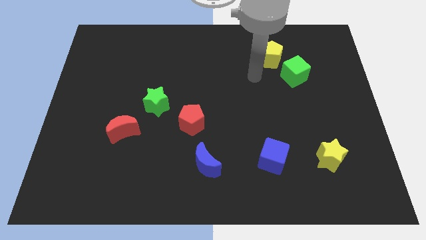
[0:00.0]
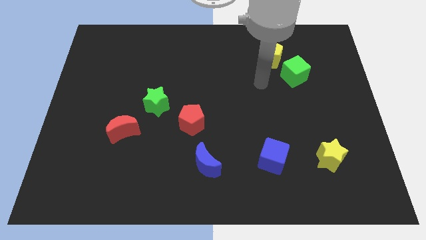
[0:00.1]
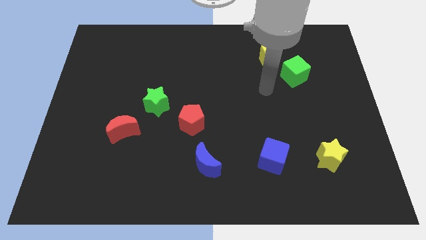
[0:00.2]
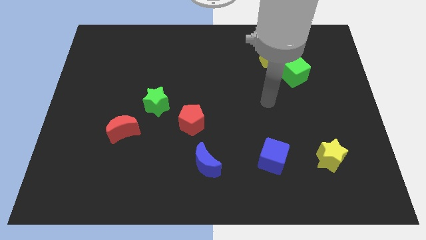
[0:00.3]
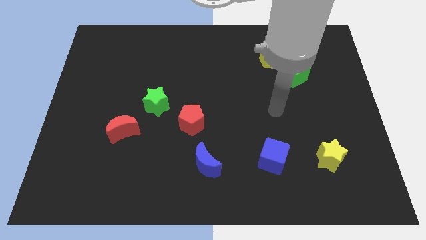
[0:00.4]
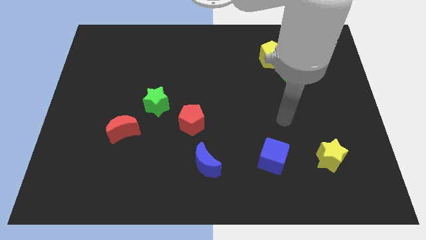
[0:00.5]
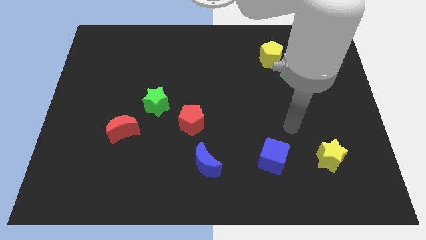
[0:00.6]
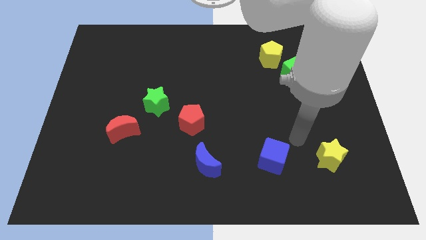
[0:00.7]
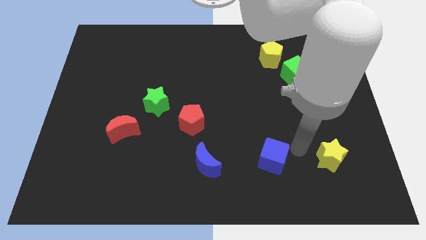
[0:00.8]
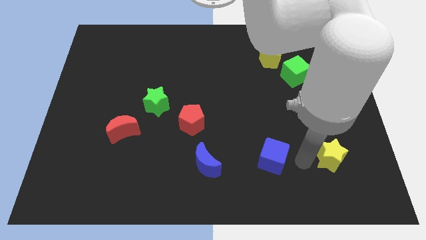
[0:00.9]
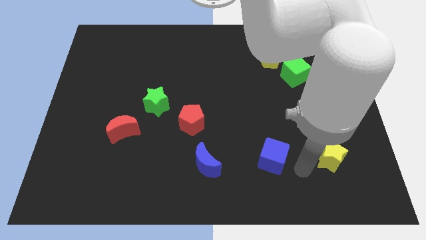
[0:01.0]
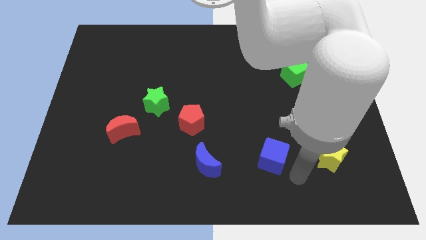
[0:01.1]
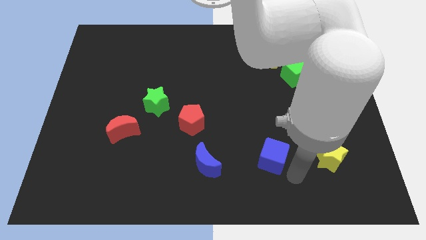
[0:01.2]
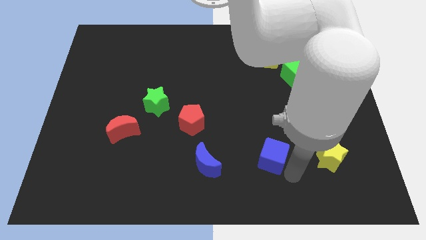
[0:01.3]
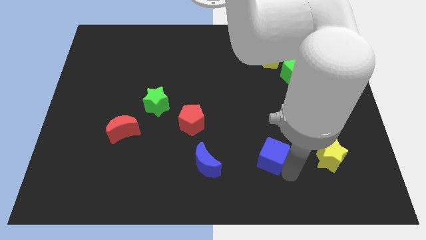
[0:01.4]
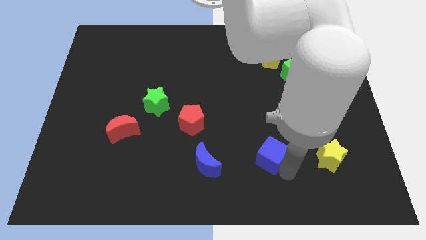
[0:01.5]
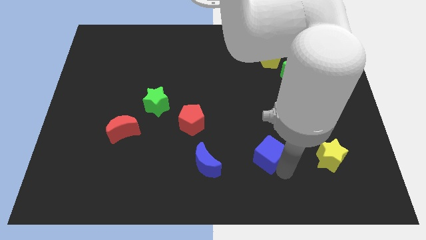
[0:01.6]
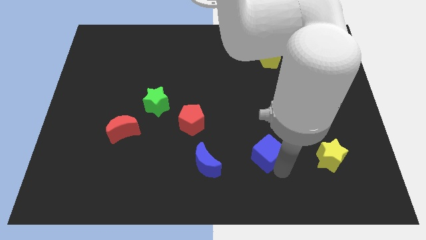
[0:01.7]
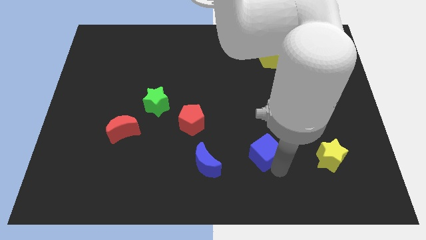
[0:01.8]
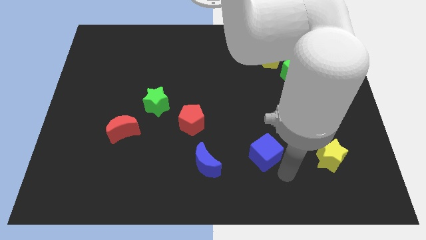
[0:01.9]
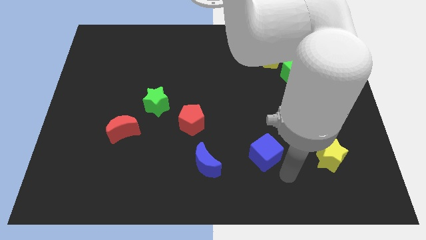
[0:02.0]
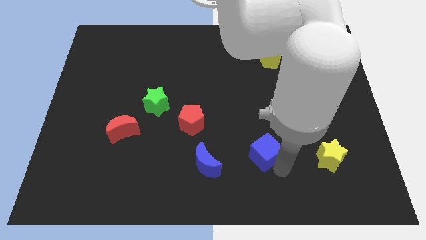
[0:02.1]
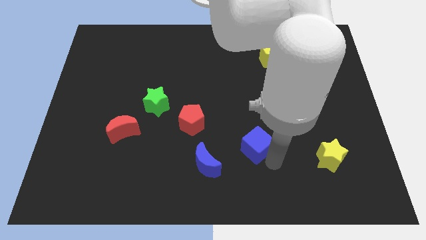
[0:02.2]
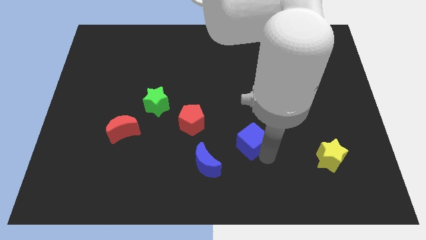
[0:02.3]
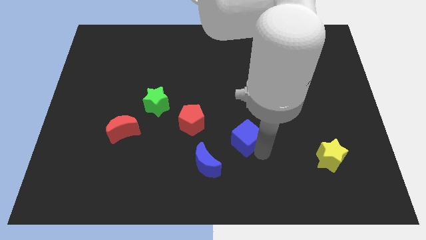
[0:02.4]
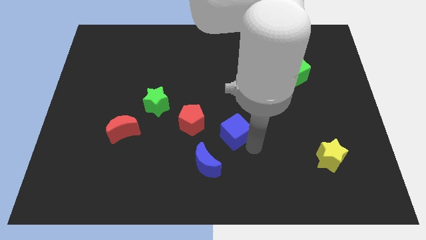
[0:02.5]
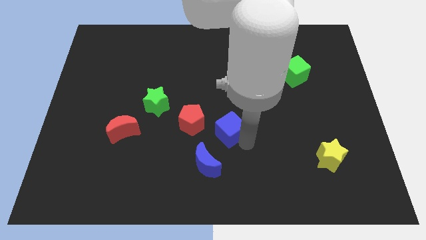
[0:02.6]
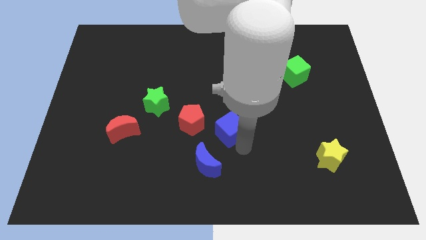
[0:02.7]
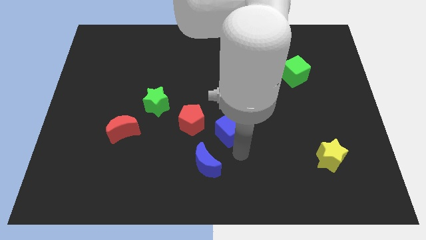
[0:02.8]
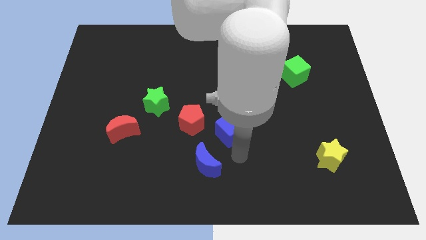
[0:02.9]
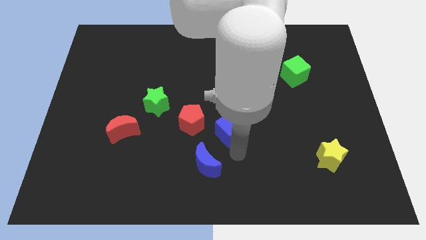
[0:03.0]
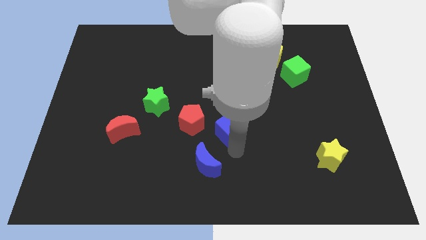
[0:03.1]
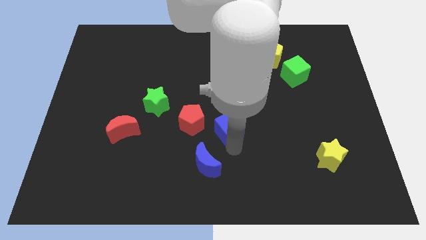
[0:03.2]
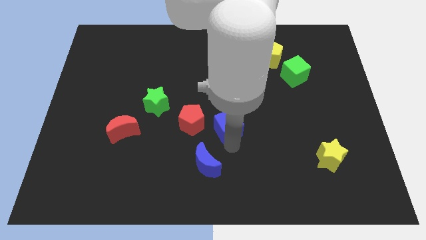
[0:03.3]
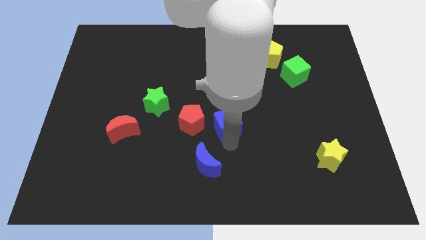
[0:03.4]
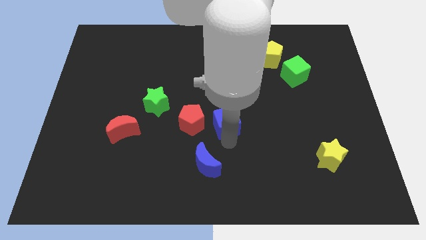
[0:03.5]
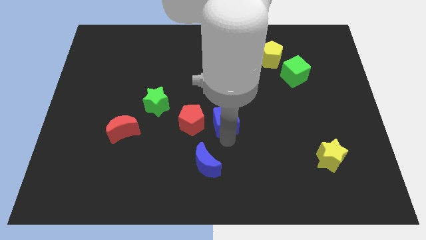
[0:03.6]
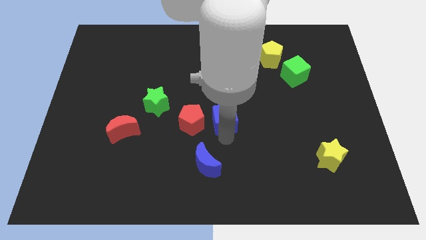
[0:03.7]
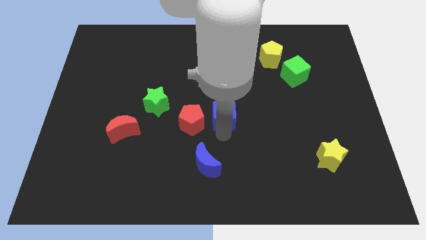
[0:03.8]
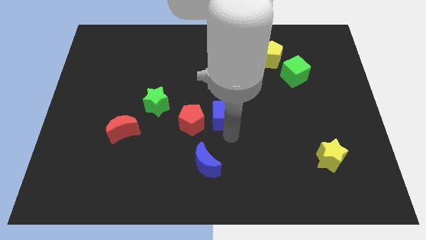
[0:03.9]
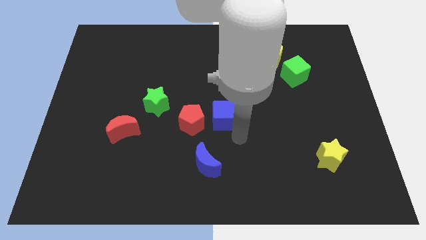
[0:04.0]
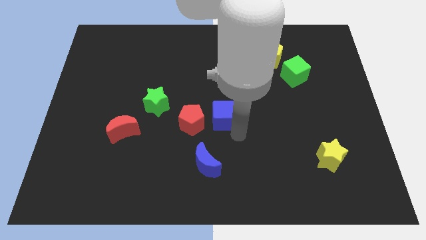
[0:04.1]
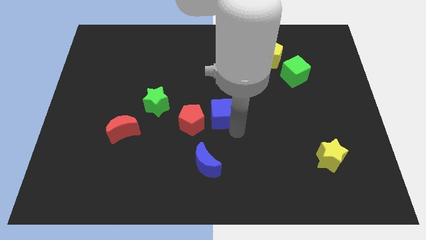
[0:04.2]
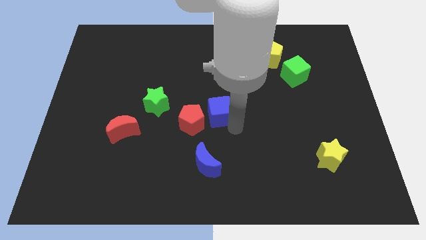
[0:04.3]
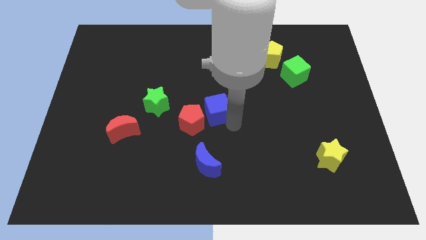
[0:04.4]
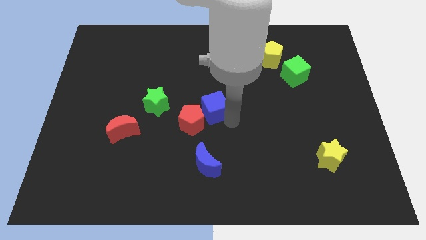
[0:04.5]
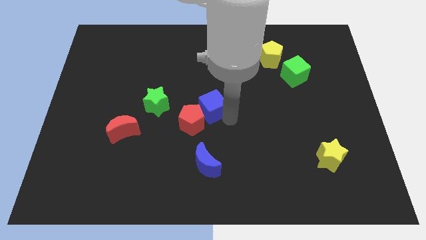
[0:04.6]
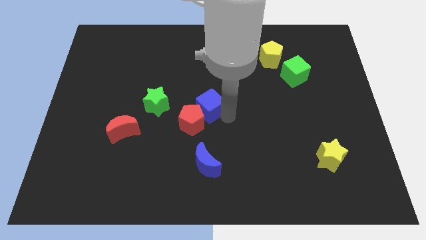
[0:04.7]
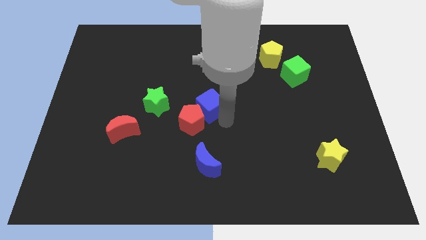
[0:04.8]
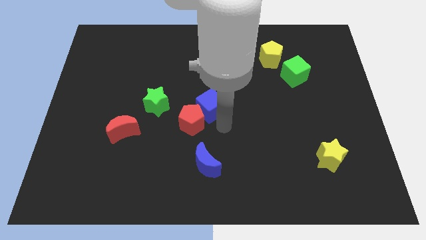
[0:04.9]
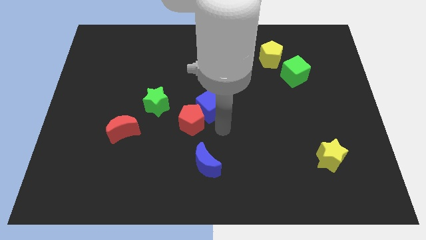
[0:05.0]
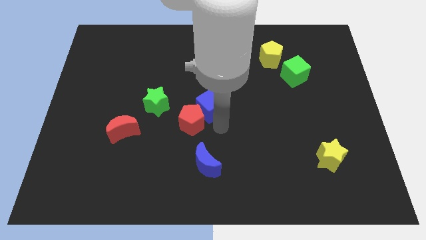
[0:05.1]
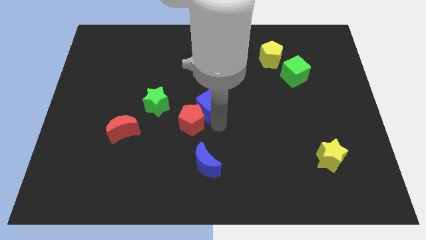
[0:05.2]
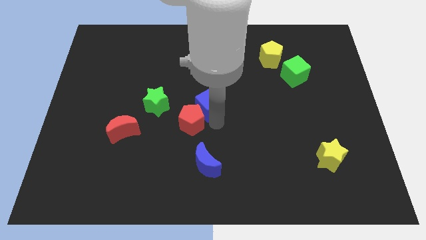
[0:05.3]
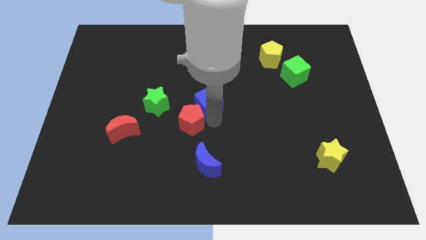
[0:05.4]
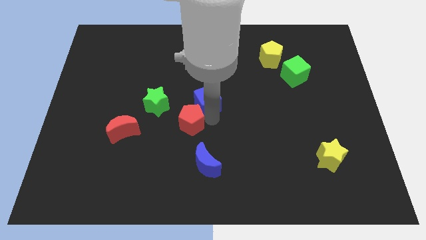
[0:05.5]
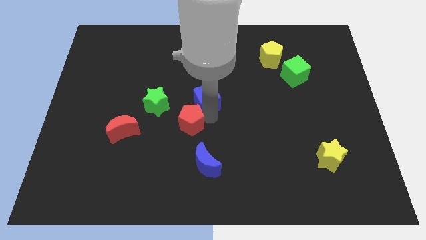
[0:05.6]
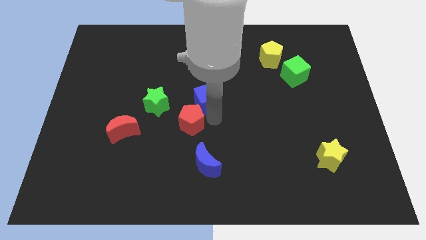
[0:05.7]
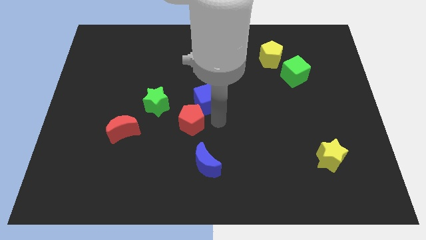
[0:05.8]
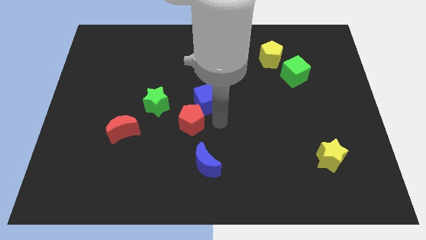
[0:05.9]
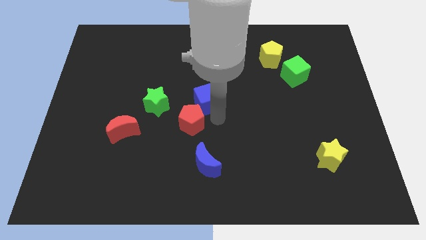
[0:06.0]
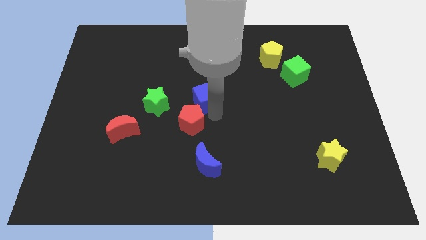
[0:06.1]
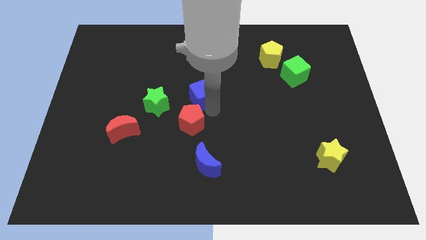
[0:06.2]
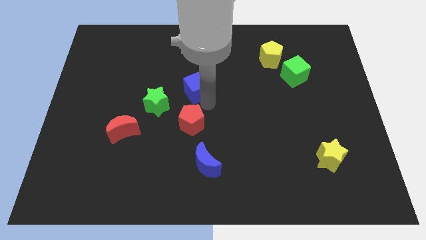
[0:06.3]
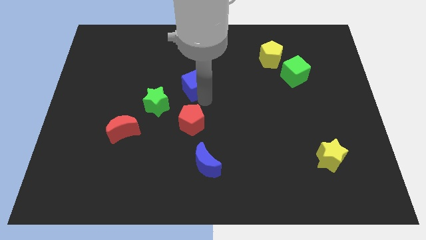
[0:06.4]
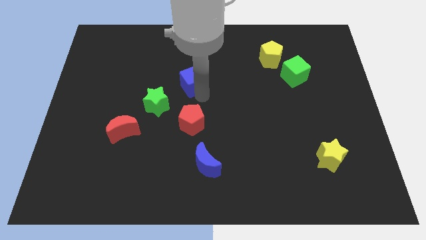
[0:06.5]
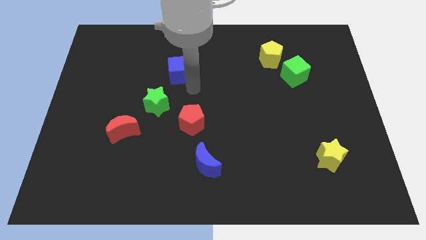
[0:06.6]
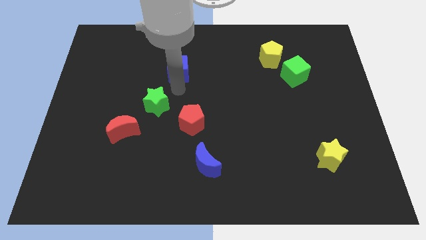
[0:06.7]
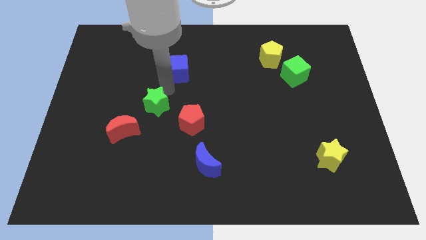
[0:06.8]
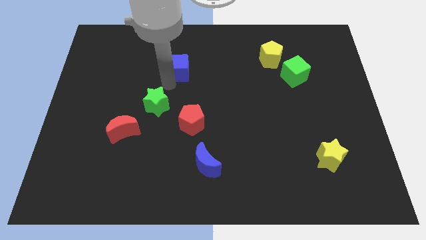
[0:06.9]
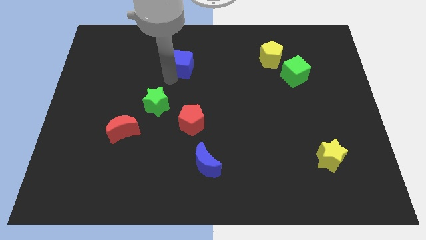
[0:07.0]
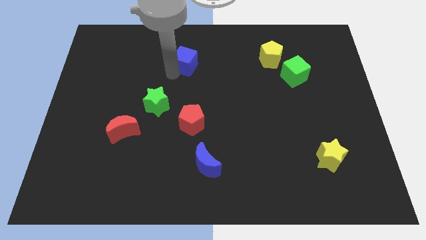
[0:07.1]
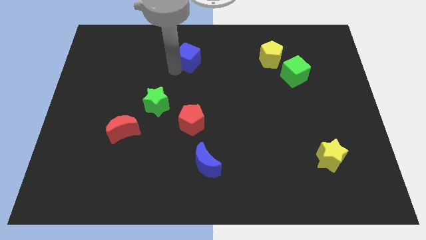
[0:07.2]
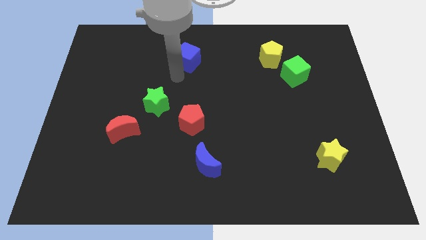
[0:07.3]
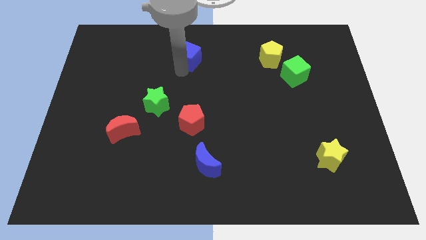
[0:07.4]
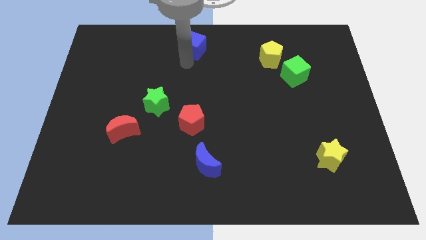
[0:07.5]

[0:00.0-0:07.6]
push the blue cube to the top side
